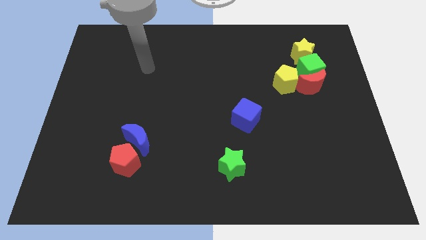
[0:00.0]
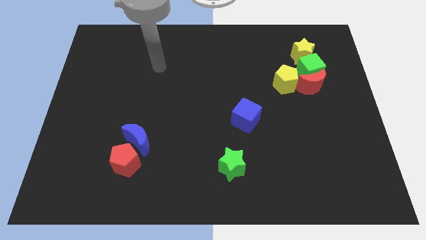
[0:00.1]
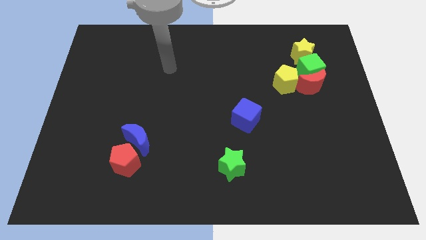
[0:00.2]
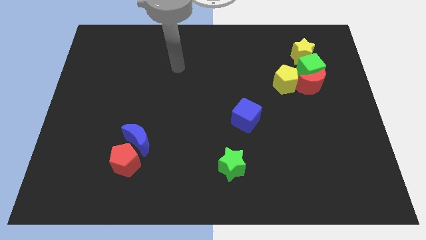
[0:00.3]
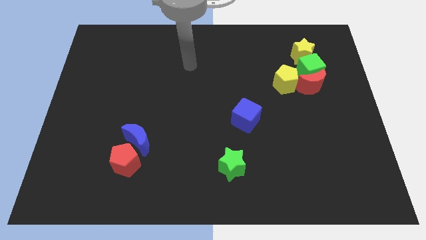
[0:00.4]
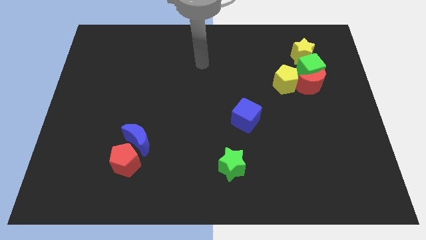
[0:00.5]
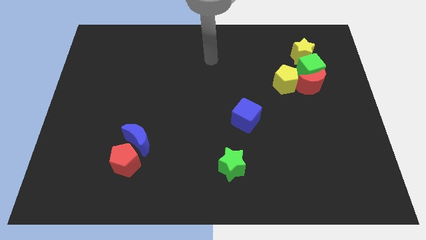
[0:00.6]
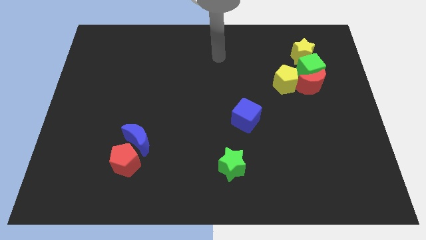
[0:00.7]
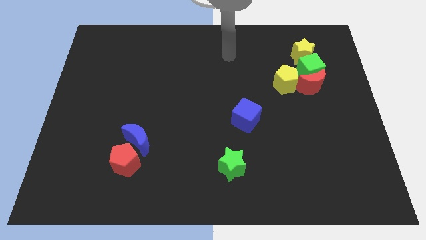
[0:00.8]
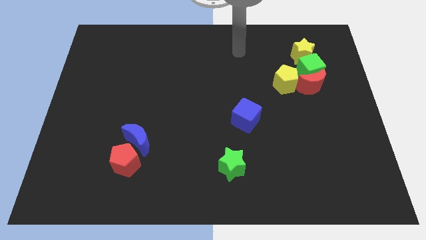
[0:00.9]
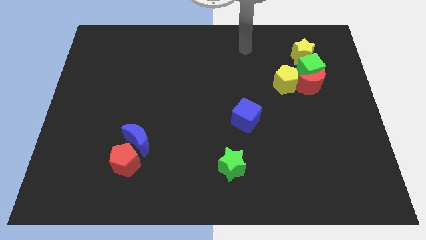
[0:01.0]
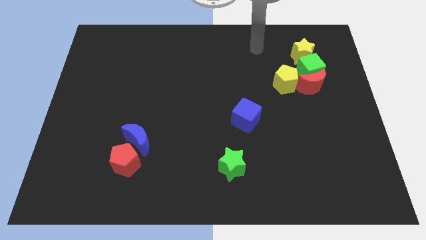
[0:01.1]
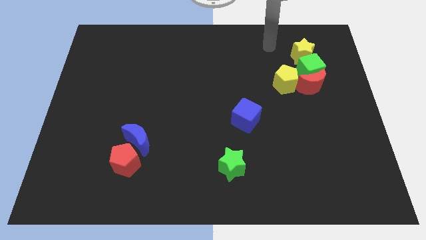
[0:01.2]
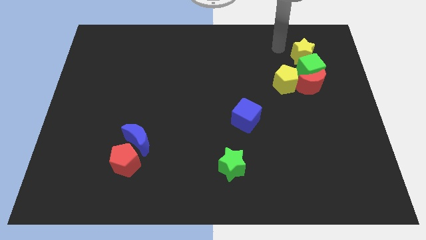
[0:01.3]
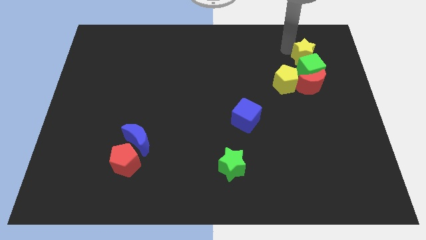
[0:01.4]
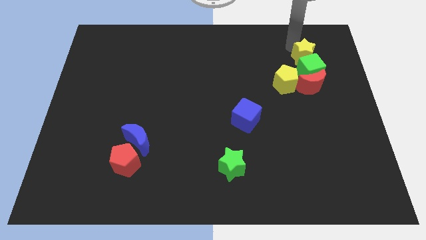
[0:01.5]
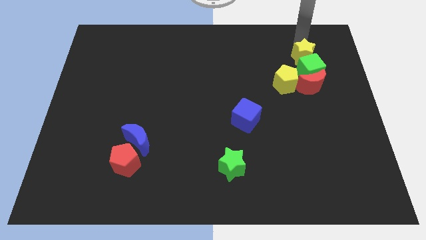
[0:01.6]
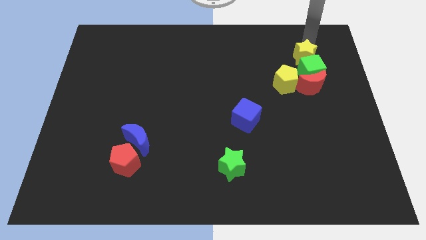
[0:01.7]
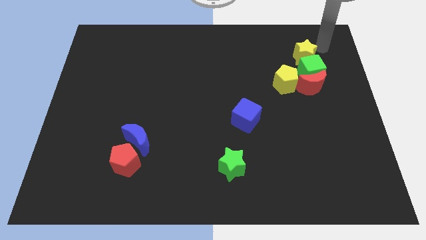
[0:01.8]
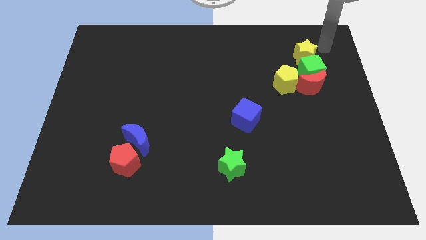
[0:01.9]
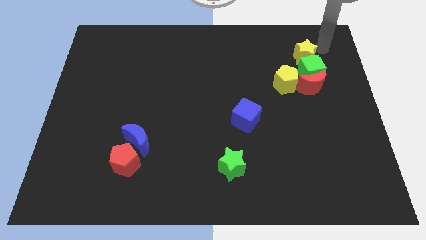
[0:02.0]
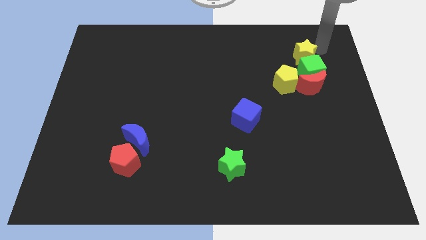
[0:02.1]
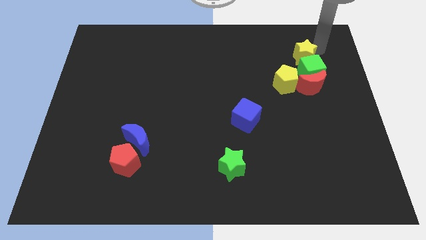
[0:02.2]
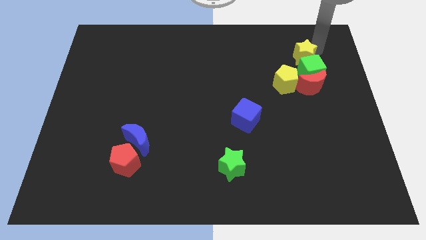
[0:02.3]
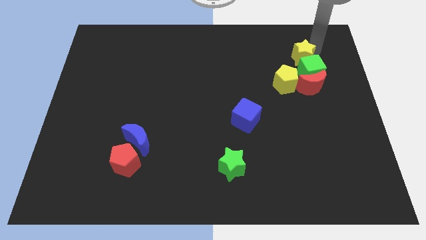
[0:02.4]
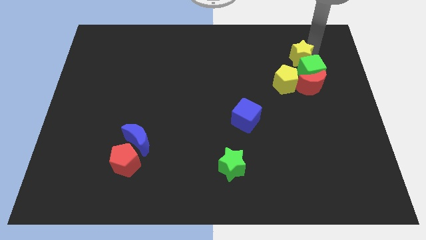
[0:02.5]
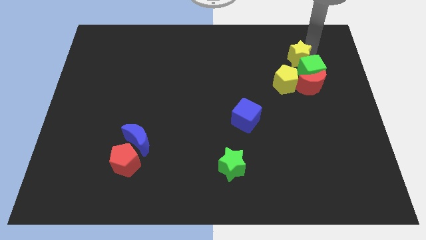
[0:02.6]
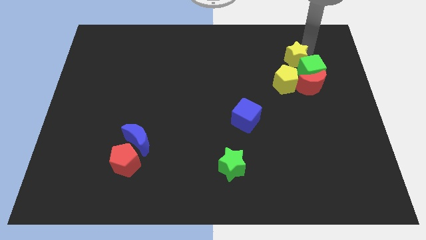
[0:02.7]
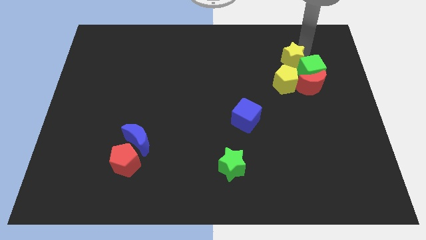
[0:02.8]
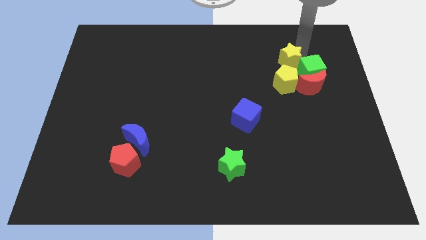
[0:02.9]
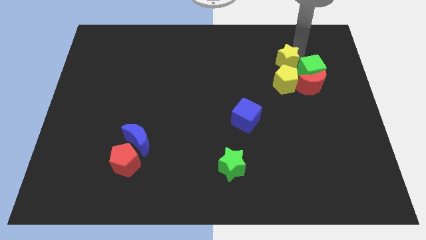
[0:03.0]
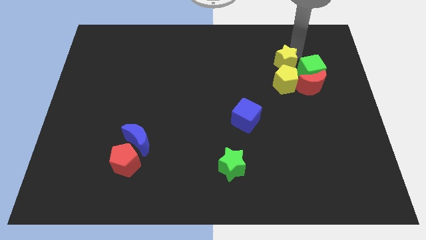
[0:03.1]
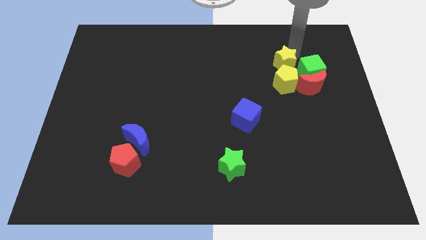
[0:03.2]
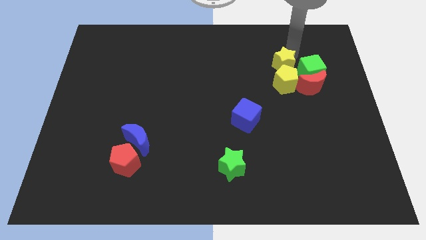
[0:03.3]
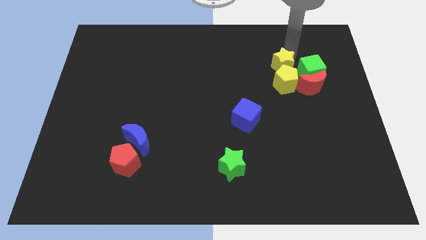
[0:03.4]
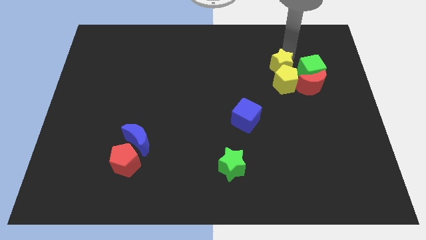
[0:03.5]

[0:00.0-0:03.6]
slide the yellow star diagonally downwards and to the left slightly

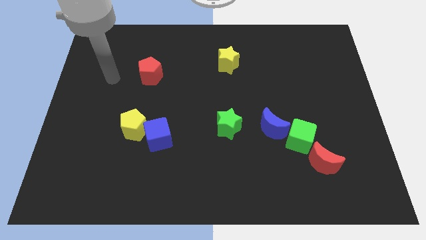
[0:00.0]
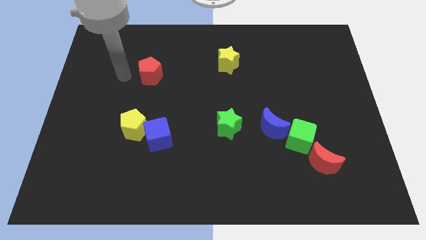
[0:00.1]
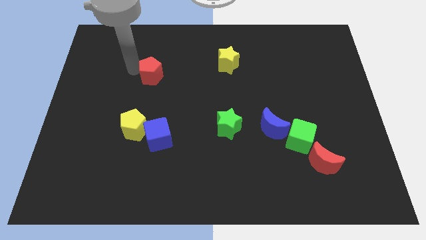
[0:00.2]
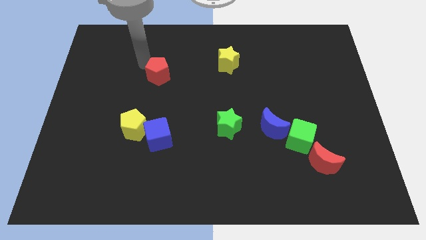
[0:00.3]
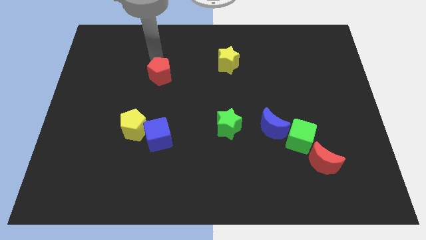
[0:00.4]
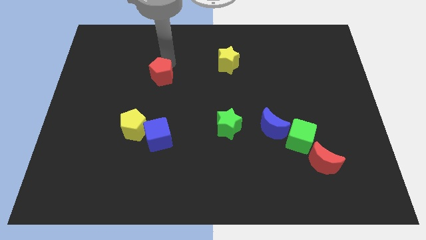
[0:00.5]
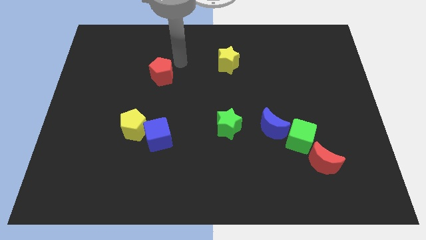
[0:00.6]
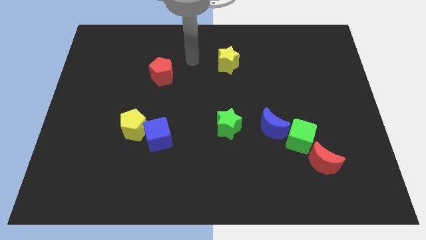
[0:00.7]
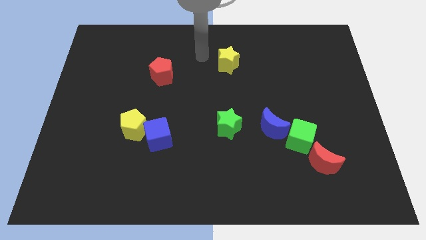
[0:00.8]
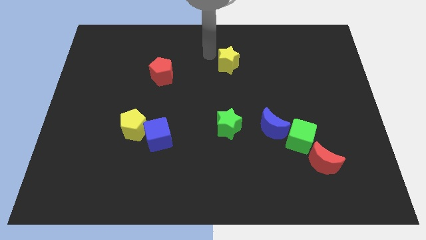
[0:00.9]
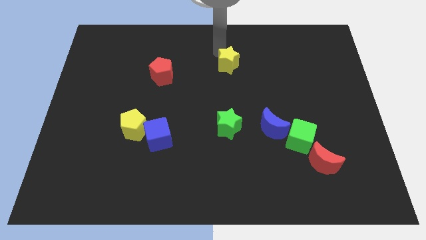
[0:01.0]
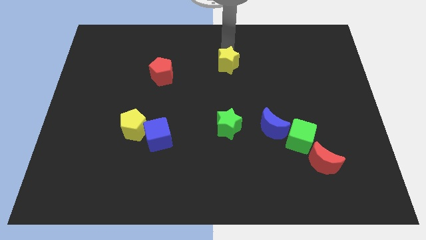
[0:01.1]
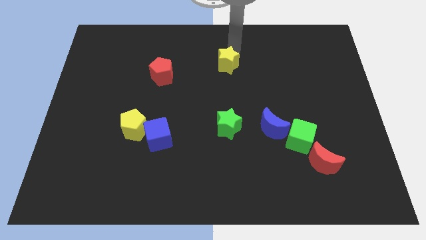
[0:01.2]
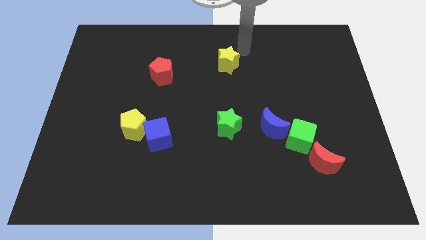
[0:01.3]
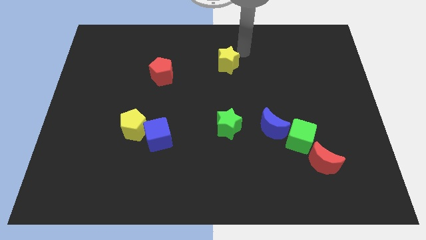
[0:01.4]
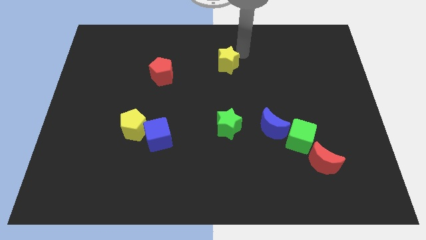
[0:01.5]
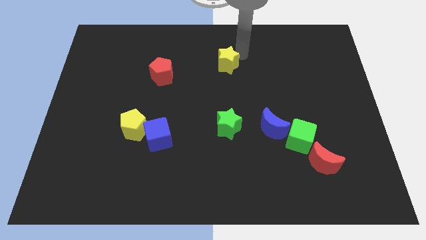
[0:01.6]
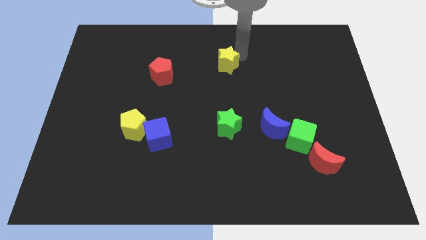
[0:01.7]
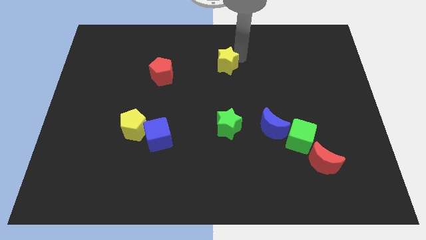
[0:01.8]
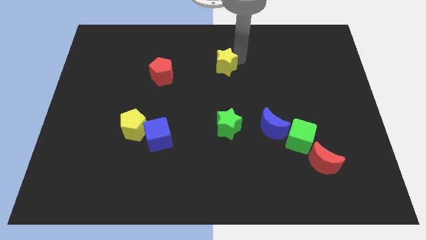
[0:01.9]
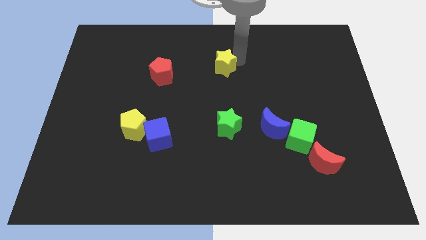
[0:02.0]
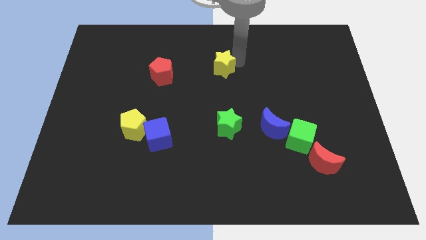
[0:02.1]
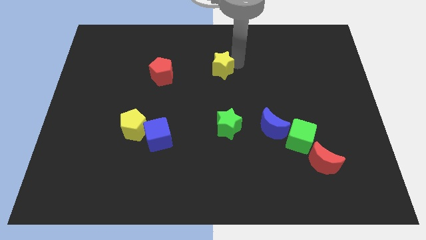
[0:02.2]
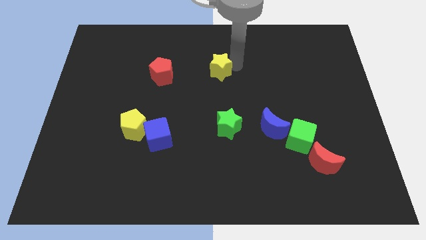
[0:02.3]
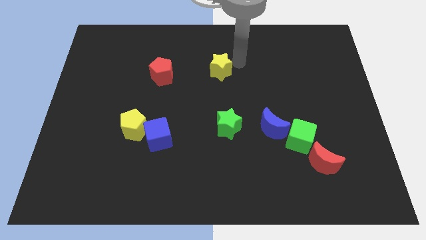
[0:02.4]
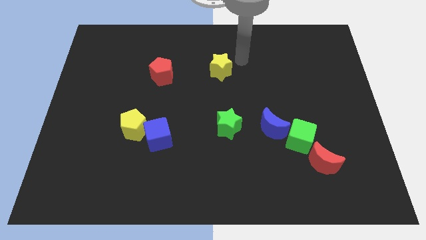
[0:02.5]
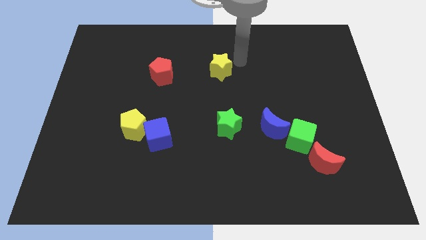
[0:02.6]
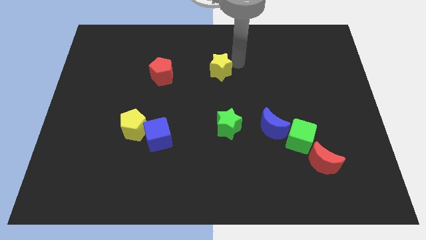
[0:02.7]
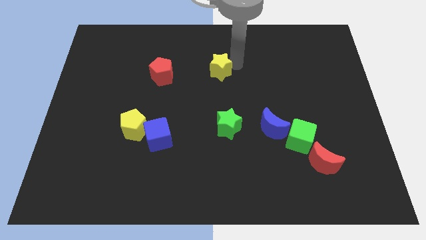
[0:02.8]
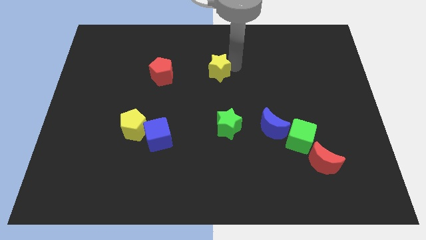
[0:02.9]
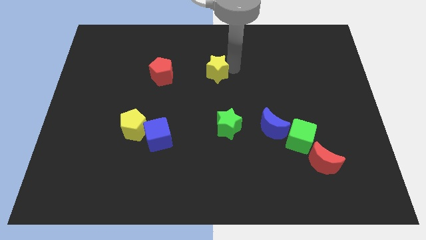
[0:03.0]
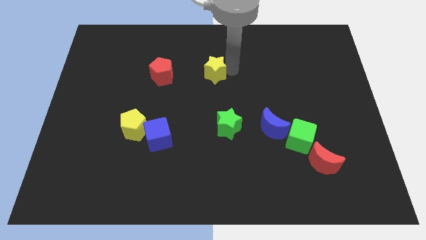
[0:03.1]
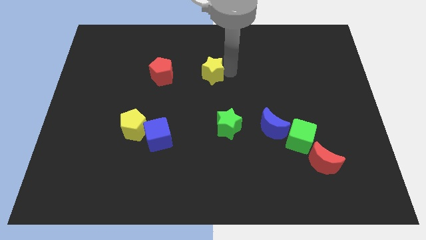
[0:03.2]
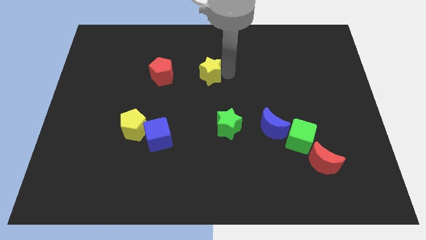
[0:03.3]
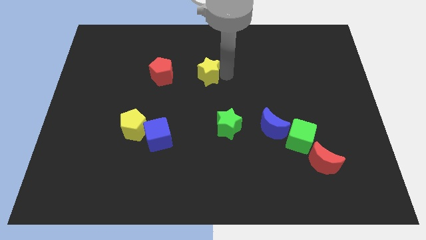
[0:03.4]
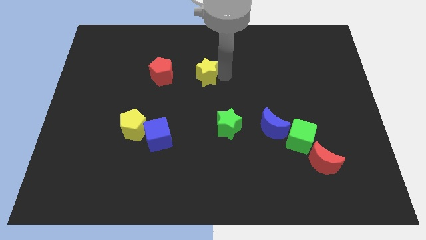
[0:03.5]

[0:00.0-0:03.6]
move the yellow star somewhat downwards and left diagonally

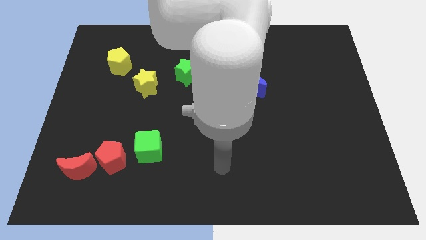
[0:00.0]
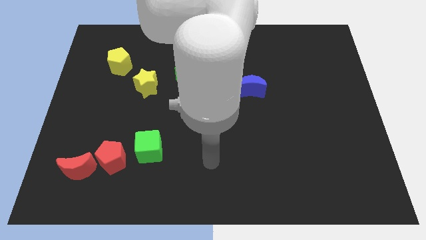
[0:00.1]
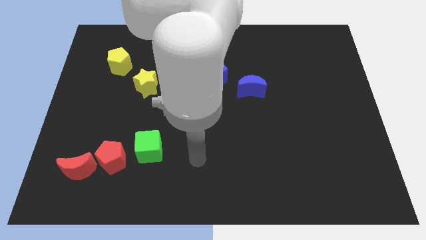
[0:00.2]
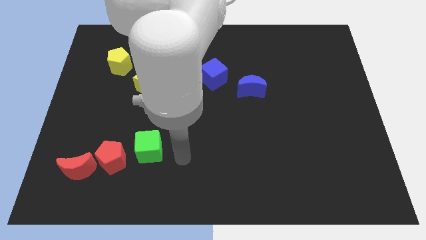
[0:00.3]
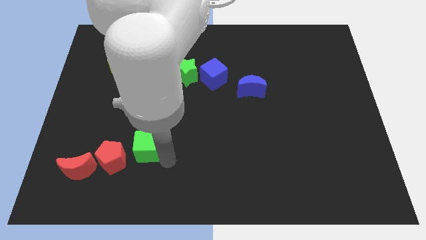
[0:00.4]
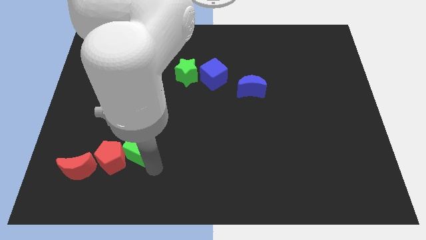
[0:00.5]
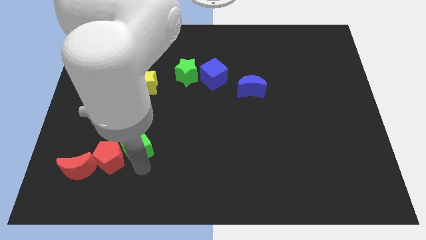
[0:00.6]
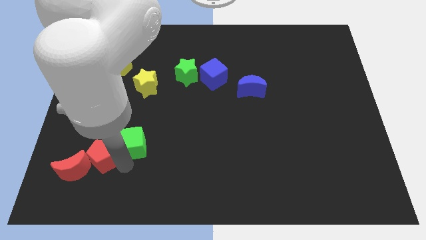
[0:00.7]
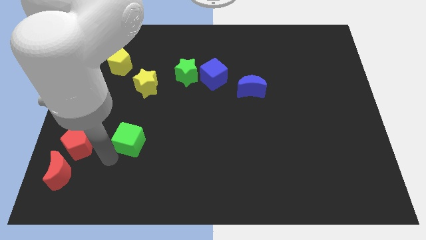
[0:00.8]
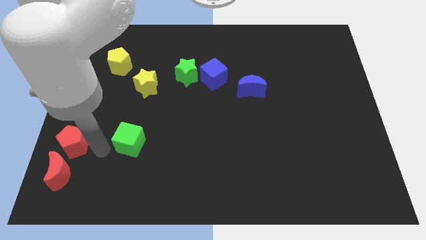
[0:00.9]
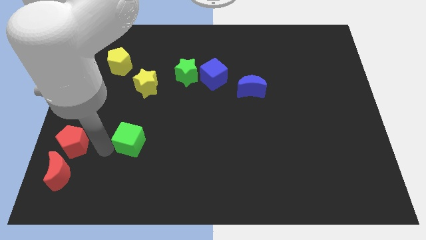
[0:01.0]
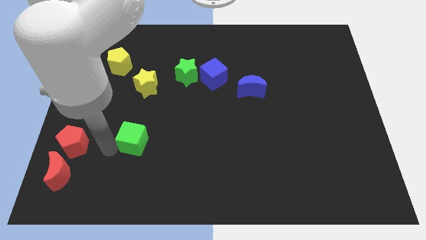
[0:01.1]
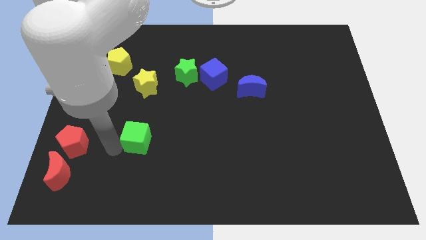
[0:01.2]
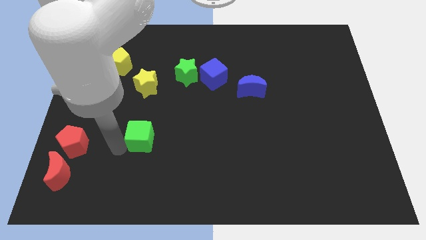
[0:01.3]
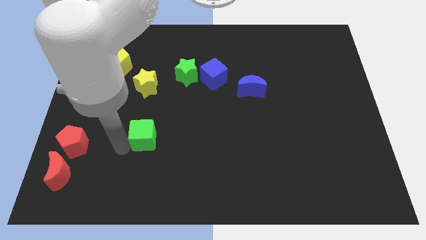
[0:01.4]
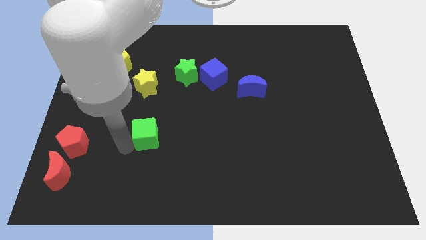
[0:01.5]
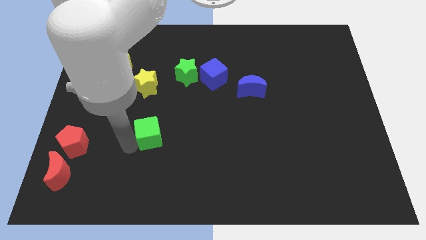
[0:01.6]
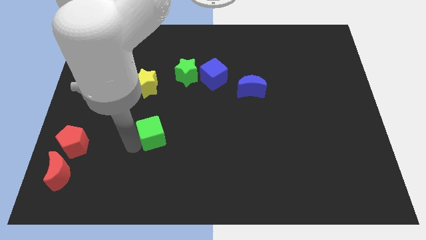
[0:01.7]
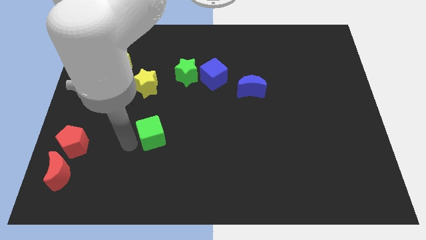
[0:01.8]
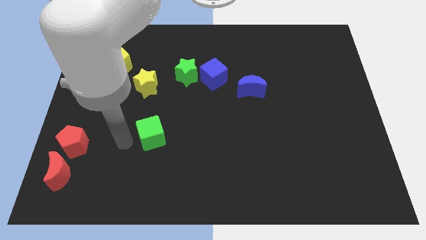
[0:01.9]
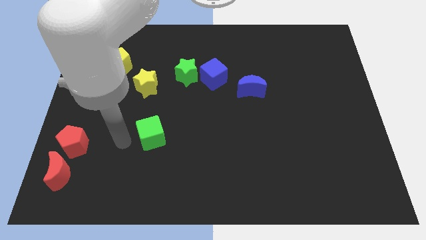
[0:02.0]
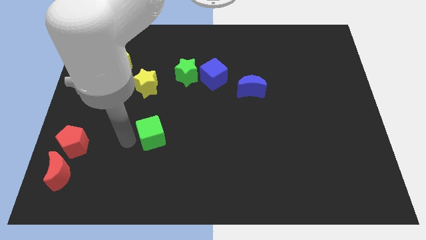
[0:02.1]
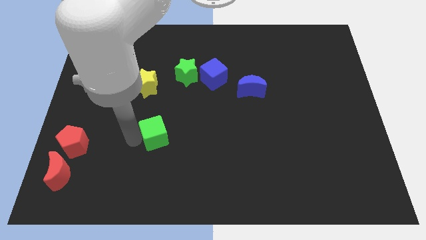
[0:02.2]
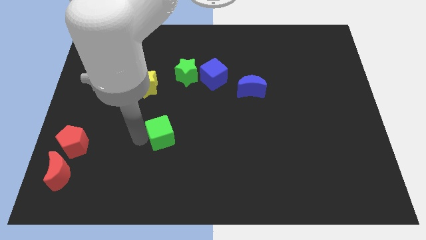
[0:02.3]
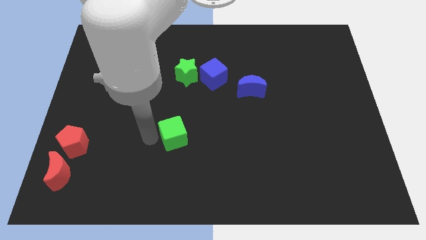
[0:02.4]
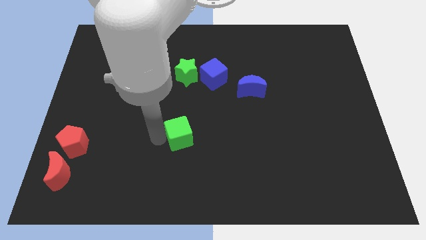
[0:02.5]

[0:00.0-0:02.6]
slide the green cube up and then right slightly
